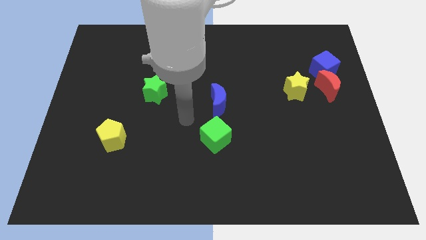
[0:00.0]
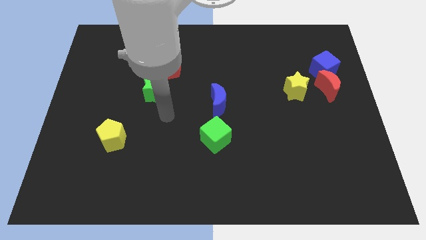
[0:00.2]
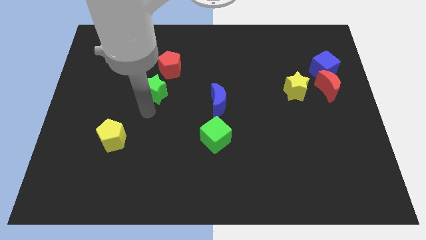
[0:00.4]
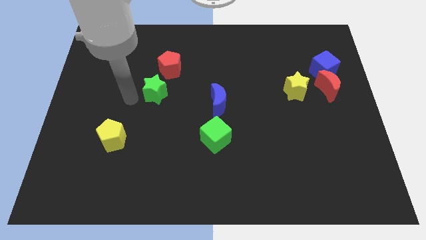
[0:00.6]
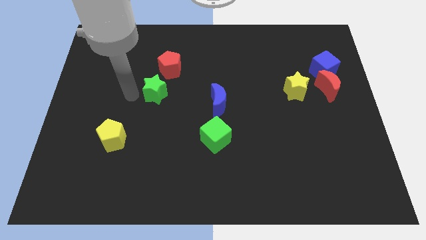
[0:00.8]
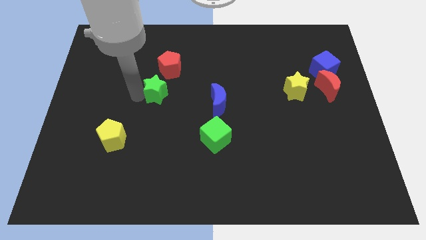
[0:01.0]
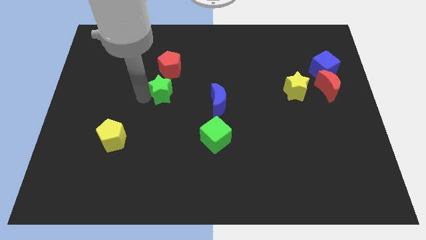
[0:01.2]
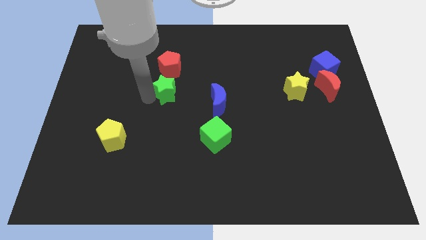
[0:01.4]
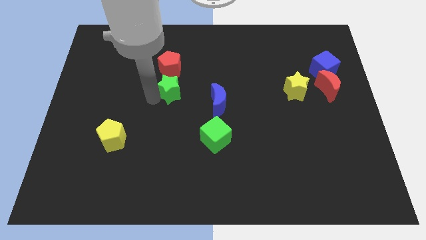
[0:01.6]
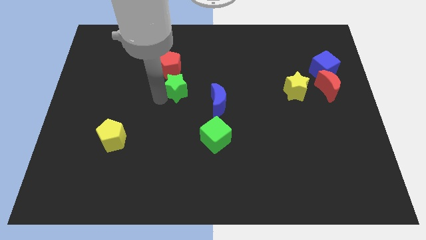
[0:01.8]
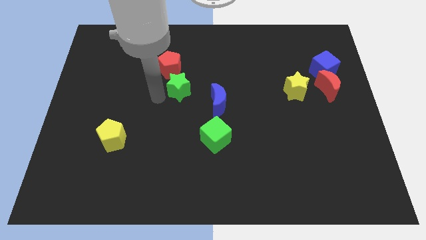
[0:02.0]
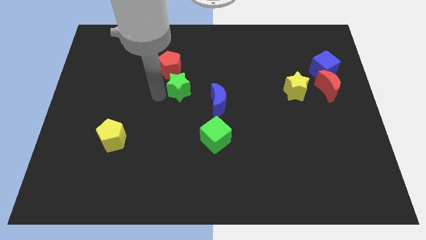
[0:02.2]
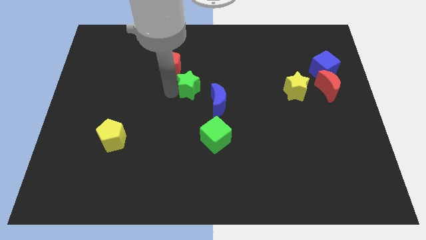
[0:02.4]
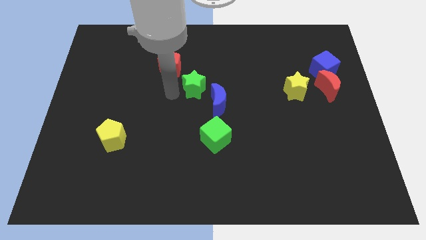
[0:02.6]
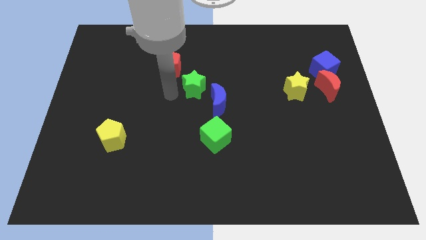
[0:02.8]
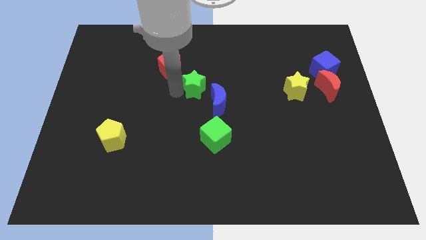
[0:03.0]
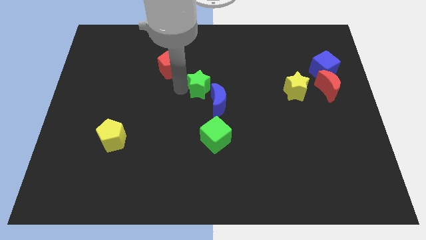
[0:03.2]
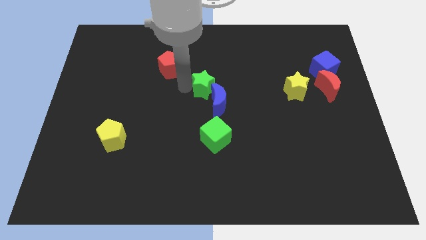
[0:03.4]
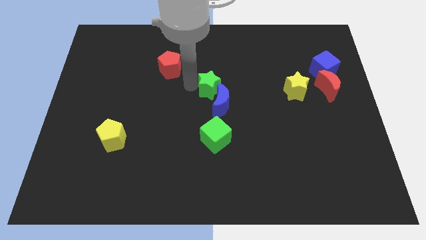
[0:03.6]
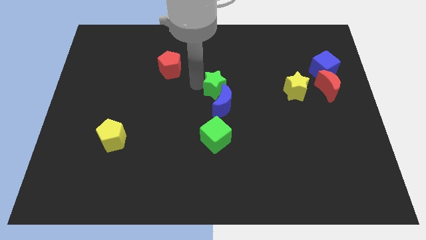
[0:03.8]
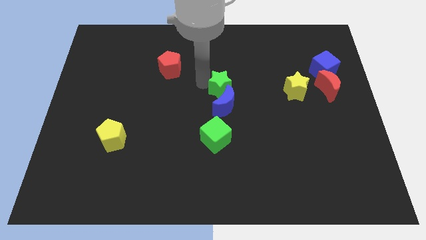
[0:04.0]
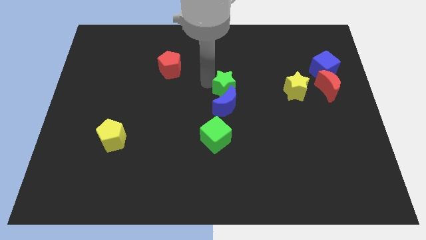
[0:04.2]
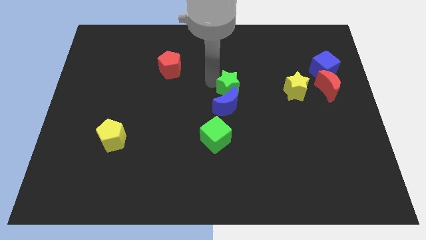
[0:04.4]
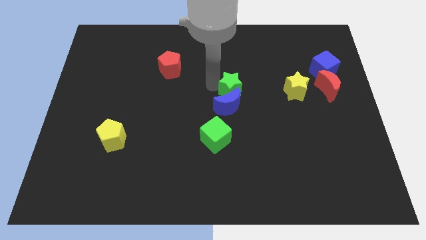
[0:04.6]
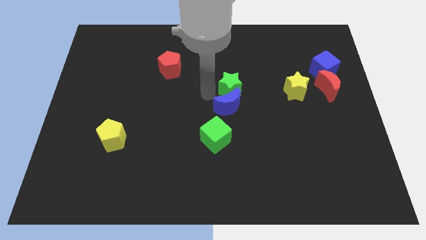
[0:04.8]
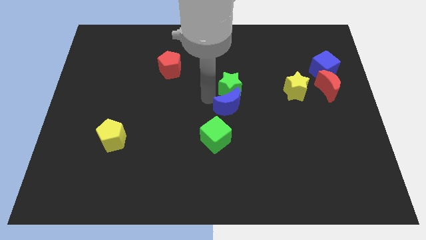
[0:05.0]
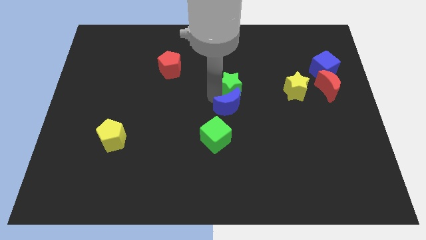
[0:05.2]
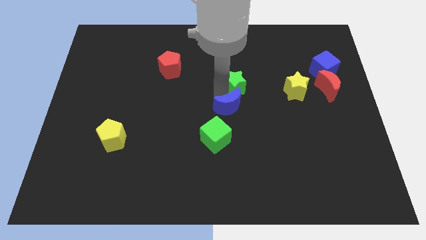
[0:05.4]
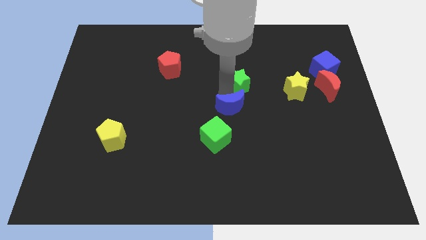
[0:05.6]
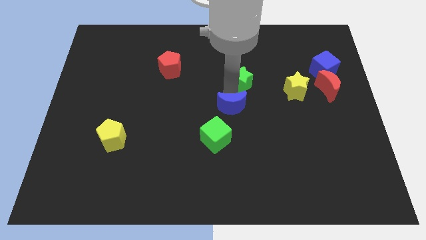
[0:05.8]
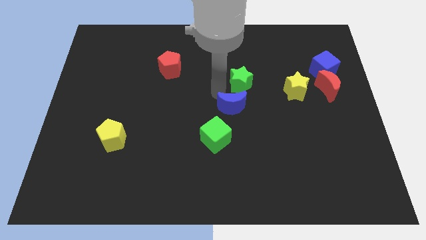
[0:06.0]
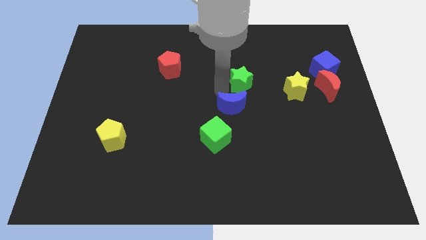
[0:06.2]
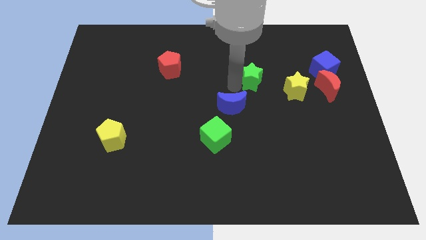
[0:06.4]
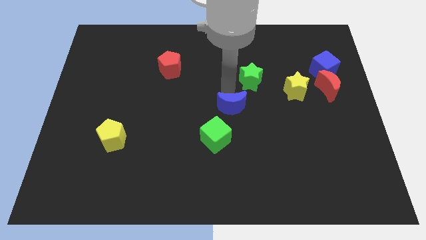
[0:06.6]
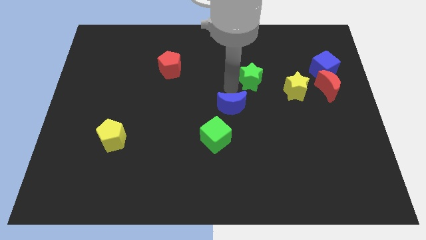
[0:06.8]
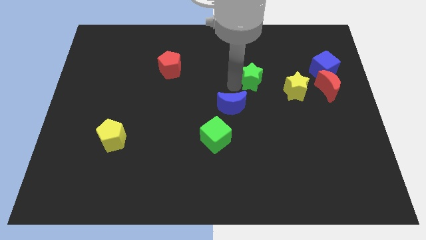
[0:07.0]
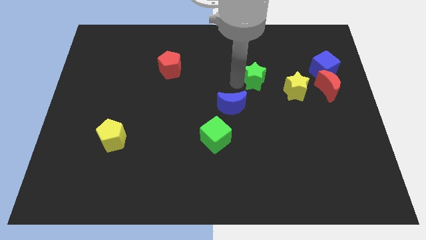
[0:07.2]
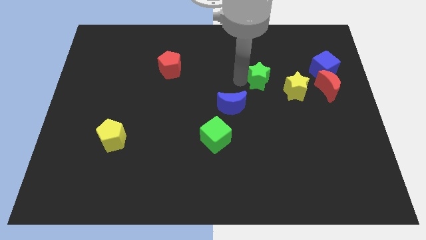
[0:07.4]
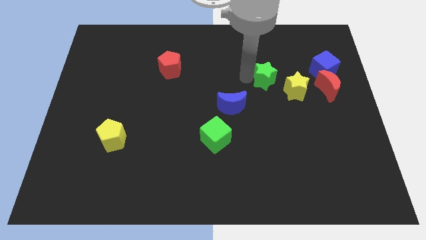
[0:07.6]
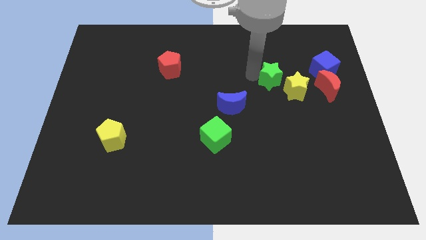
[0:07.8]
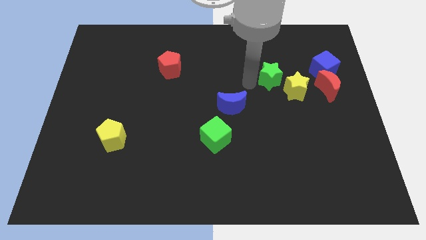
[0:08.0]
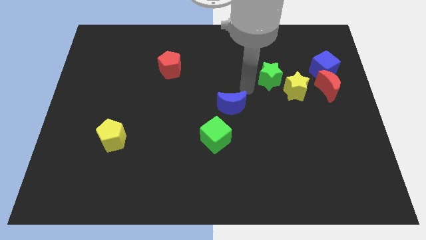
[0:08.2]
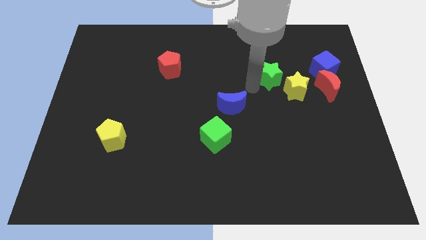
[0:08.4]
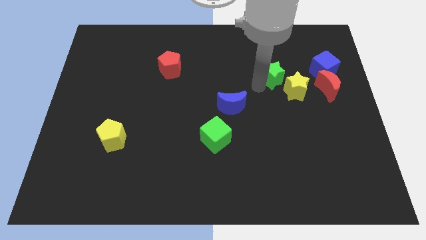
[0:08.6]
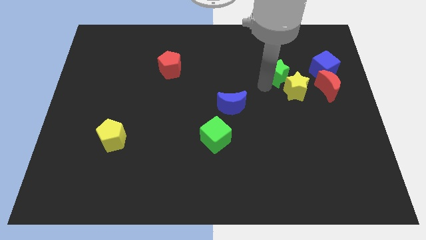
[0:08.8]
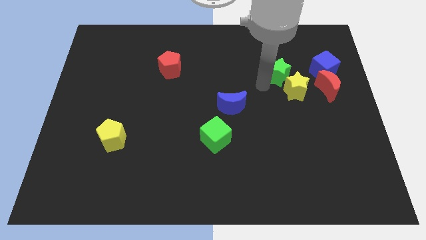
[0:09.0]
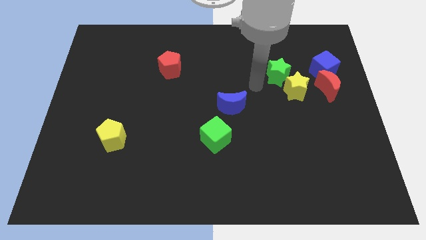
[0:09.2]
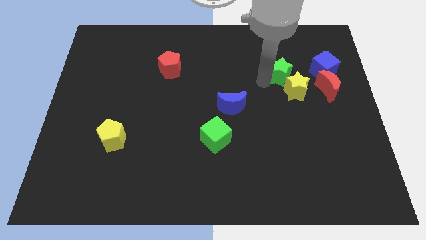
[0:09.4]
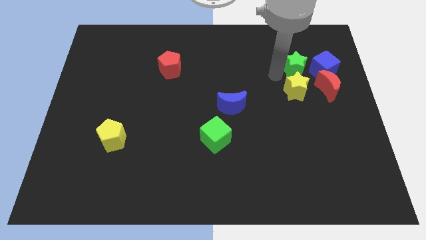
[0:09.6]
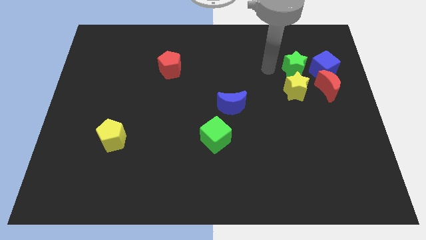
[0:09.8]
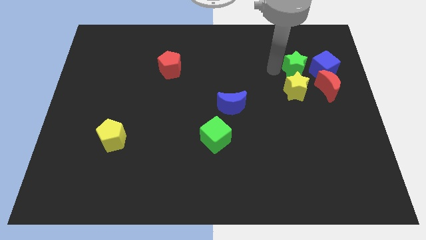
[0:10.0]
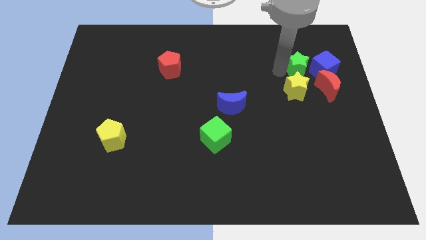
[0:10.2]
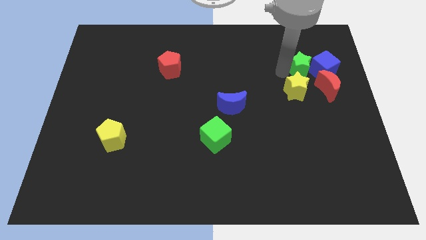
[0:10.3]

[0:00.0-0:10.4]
push the green star next to the blue cube

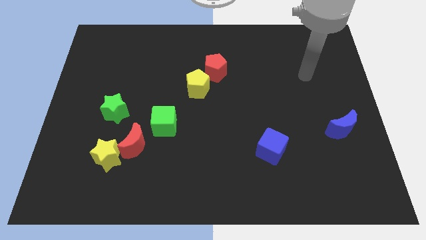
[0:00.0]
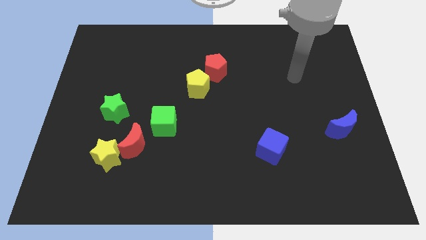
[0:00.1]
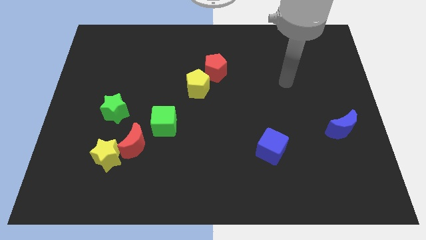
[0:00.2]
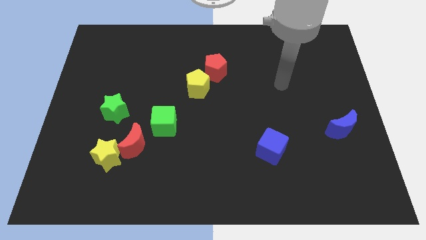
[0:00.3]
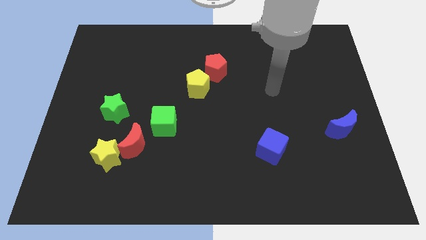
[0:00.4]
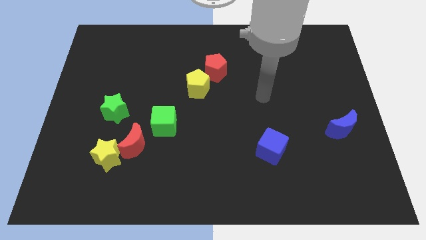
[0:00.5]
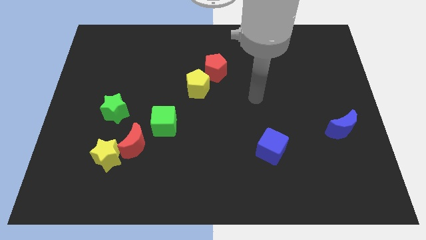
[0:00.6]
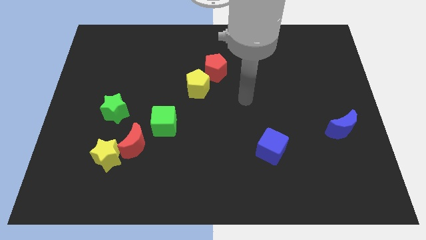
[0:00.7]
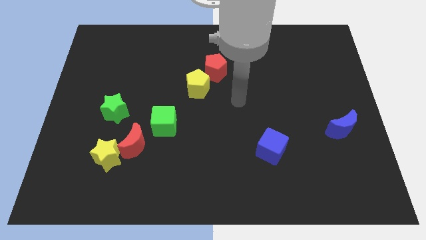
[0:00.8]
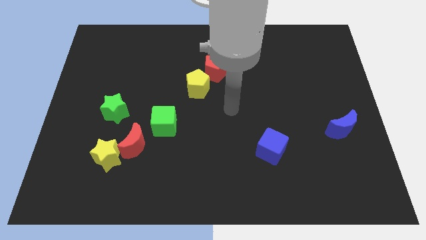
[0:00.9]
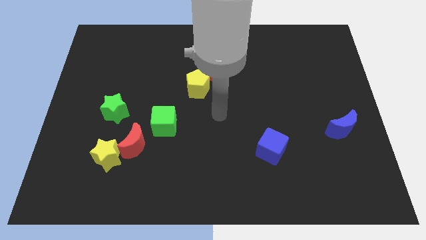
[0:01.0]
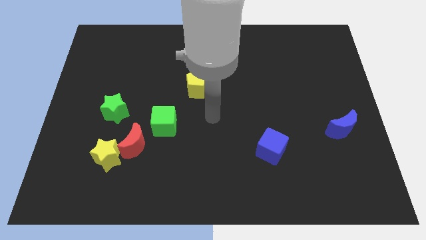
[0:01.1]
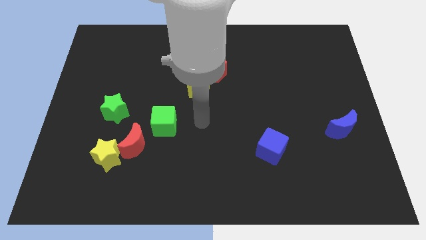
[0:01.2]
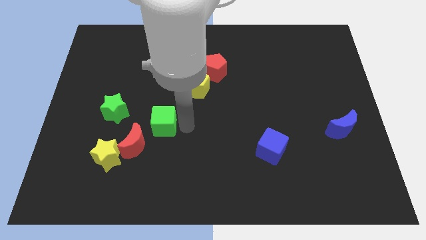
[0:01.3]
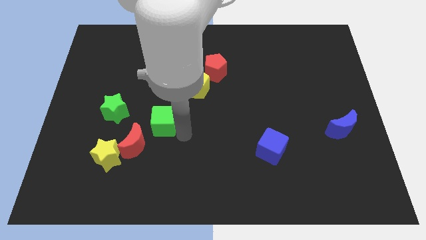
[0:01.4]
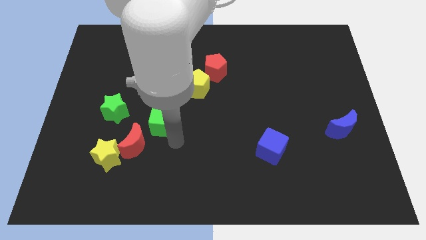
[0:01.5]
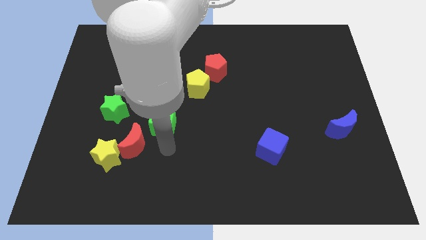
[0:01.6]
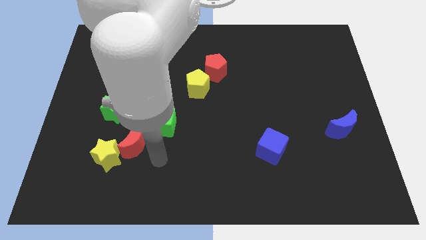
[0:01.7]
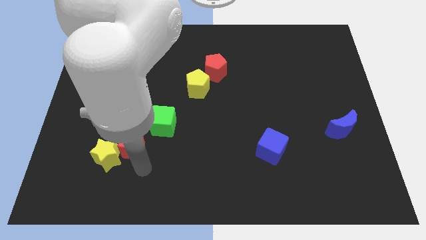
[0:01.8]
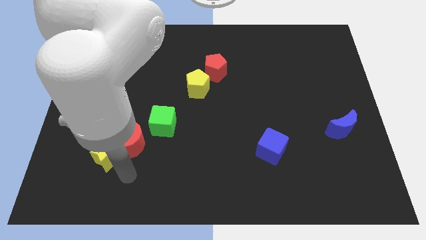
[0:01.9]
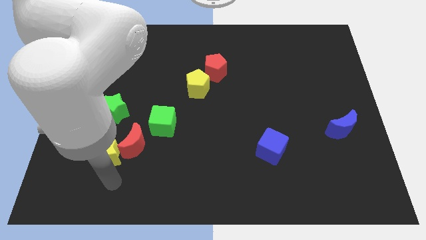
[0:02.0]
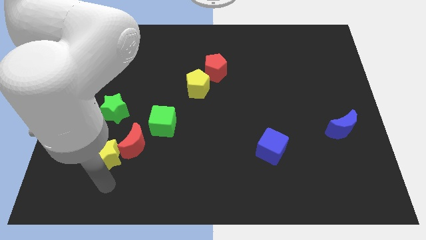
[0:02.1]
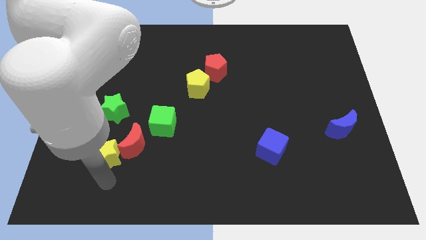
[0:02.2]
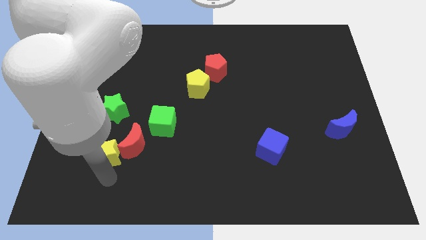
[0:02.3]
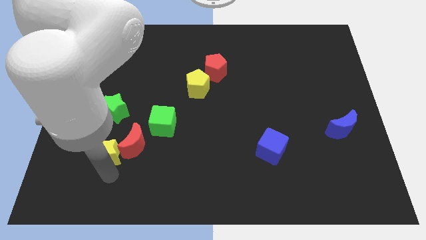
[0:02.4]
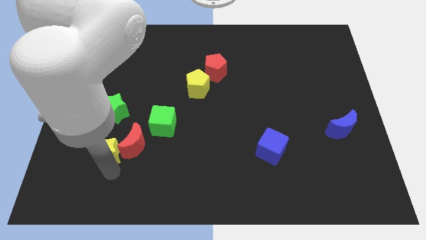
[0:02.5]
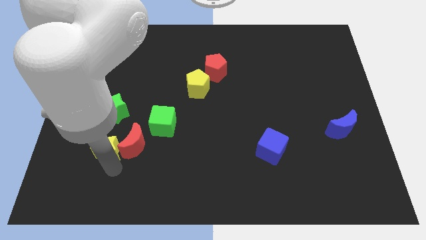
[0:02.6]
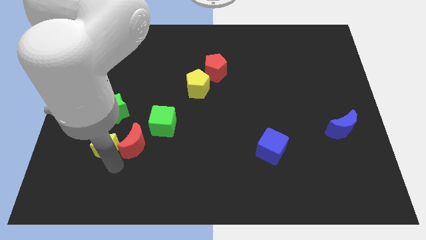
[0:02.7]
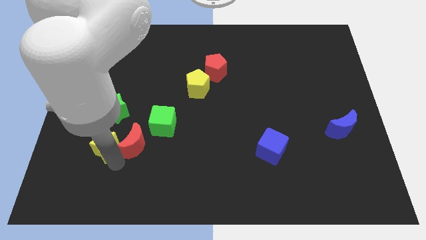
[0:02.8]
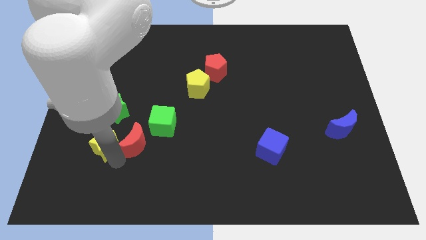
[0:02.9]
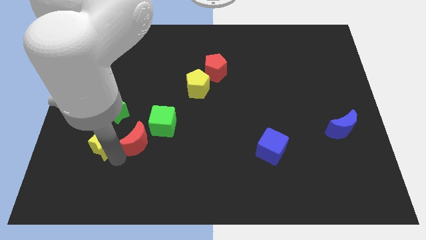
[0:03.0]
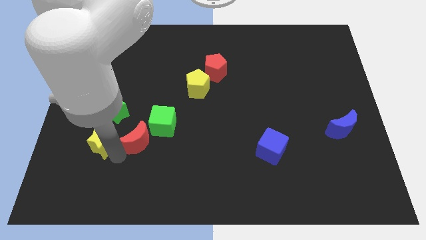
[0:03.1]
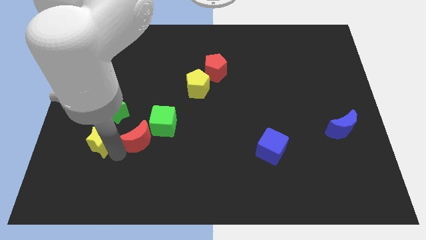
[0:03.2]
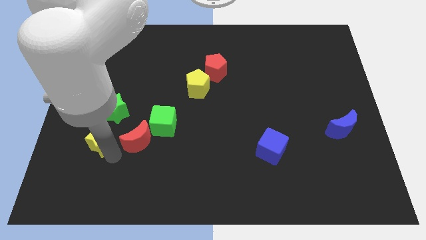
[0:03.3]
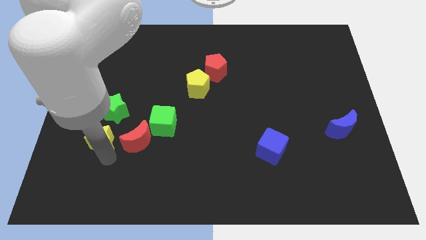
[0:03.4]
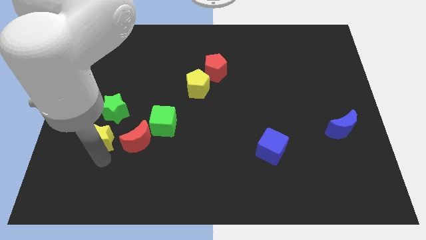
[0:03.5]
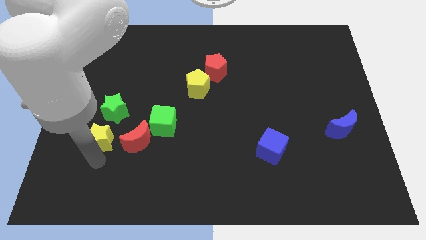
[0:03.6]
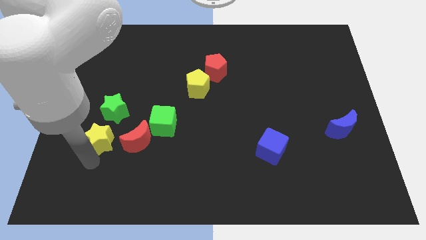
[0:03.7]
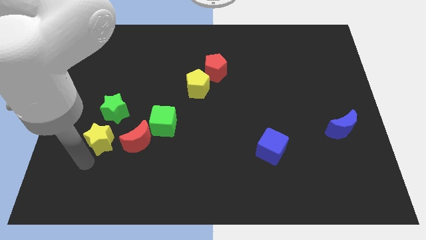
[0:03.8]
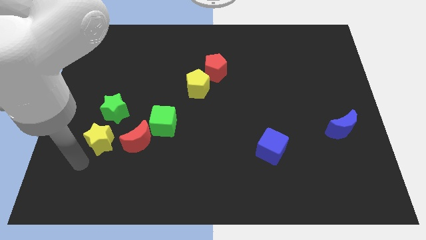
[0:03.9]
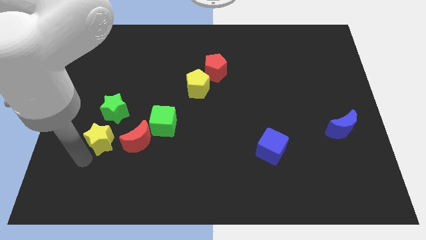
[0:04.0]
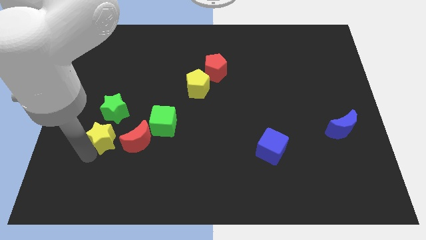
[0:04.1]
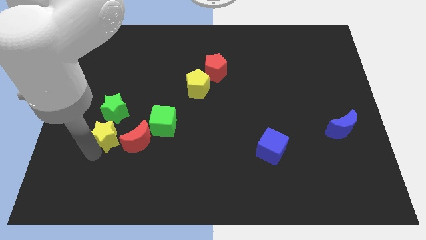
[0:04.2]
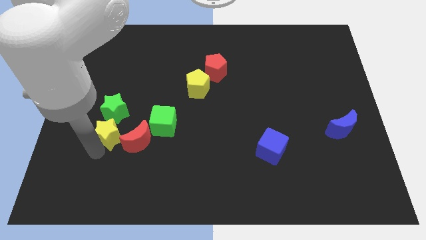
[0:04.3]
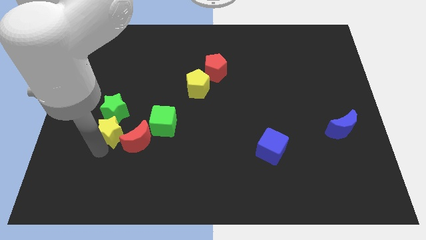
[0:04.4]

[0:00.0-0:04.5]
slide the yellow star towards the green star
